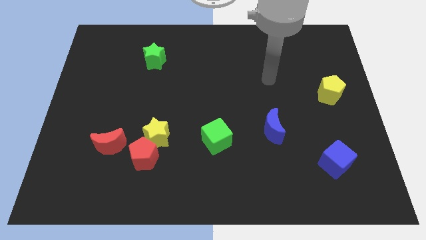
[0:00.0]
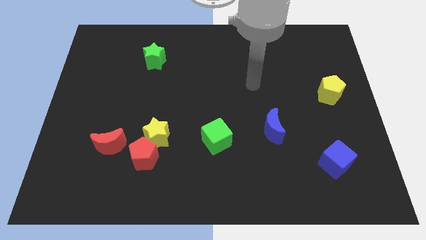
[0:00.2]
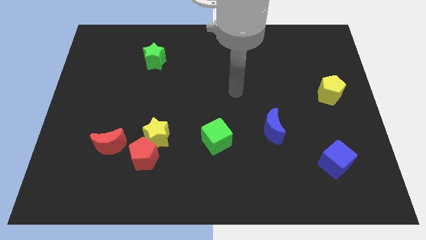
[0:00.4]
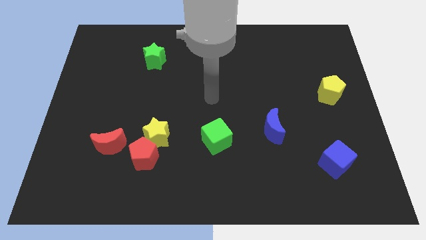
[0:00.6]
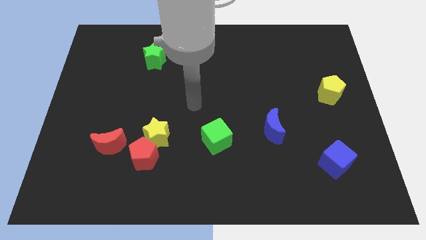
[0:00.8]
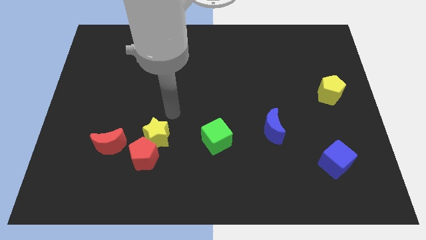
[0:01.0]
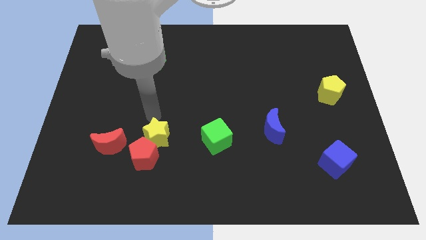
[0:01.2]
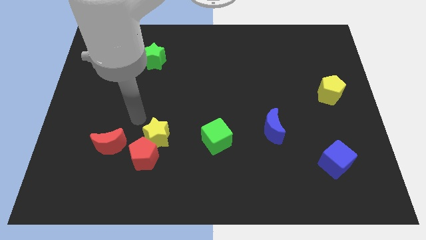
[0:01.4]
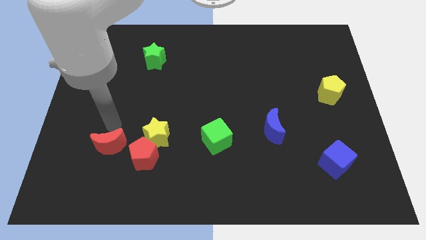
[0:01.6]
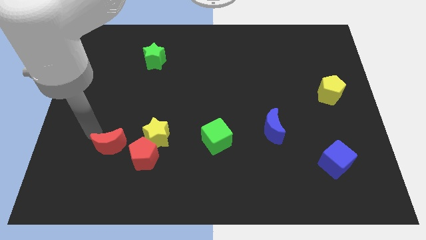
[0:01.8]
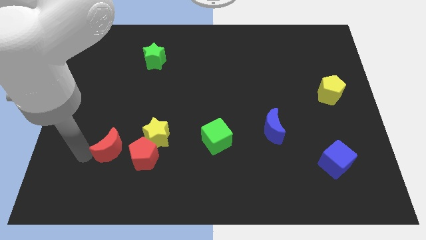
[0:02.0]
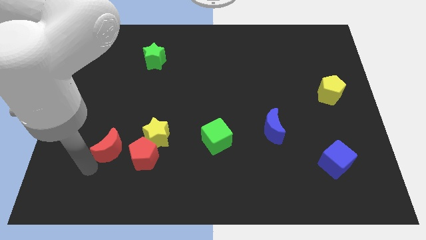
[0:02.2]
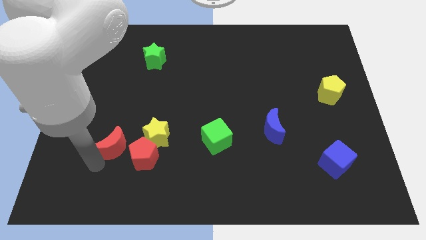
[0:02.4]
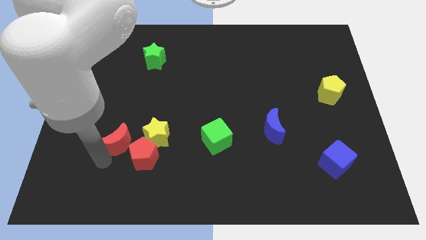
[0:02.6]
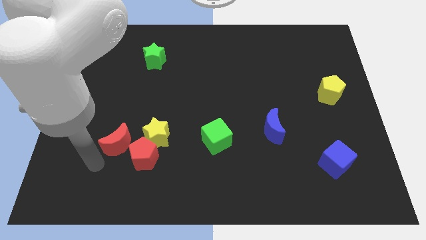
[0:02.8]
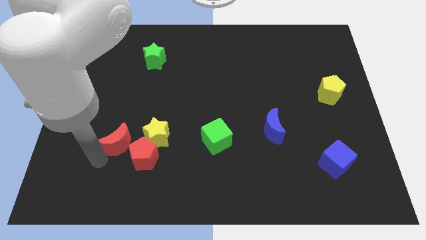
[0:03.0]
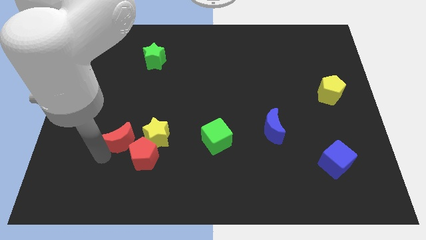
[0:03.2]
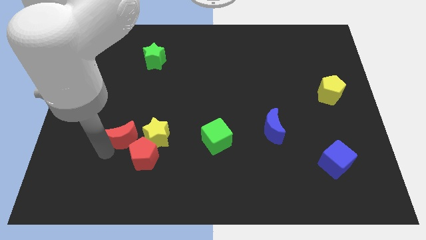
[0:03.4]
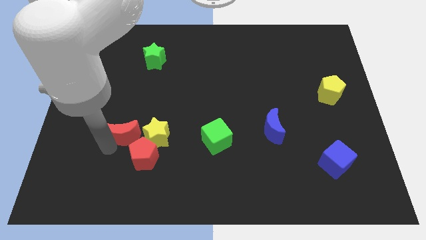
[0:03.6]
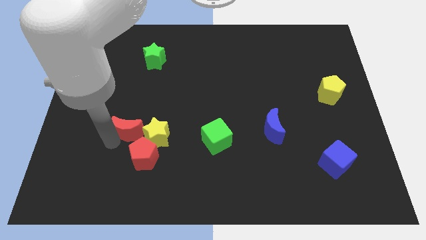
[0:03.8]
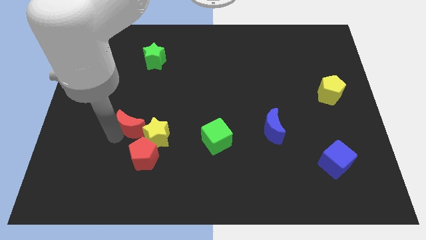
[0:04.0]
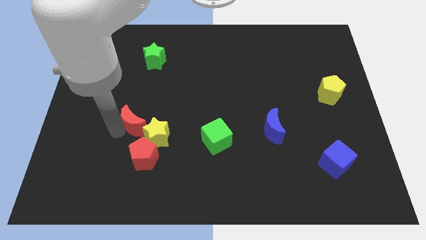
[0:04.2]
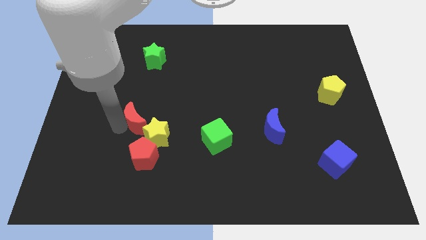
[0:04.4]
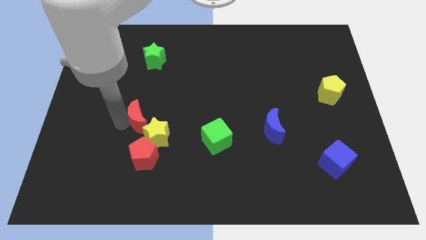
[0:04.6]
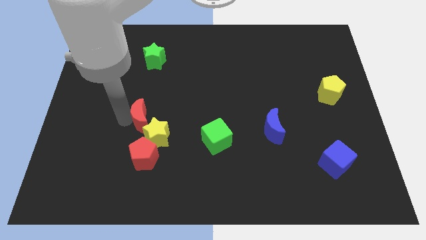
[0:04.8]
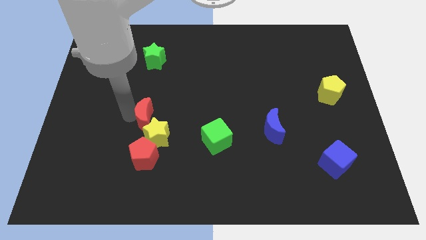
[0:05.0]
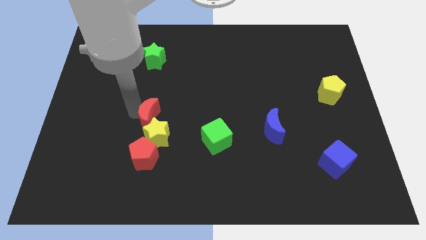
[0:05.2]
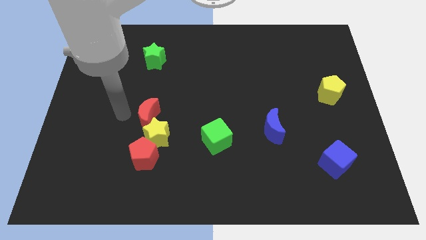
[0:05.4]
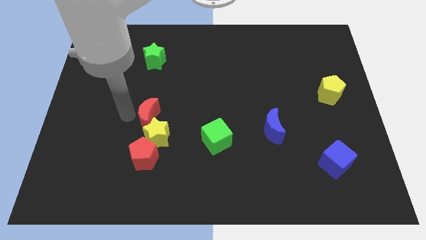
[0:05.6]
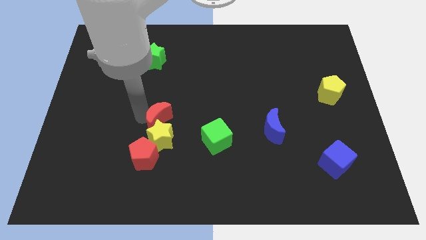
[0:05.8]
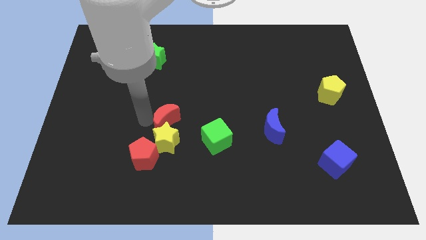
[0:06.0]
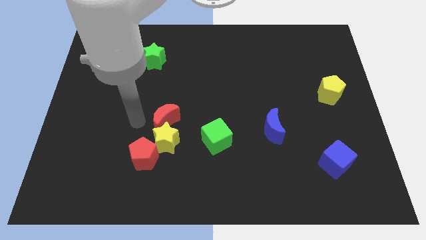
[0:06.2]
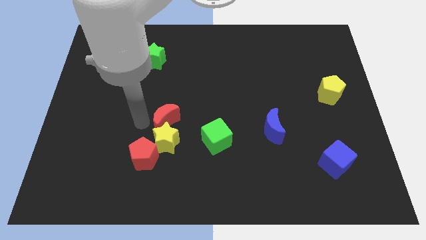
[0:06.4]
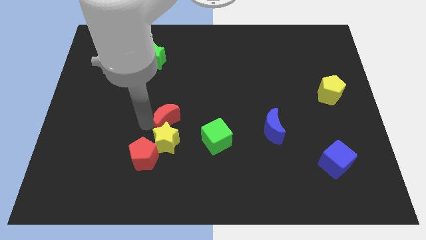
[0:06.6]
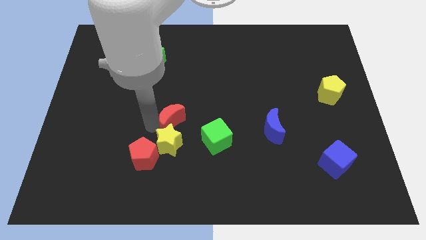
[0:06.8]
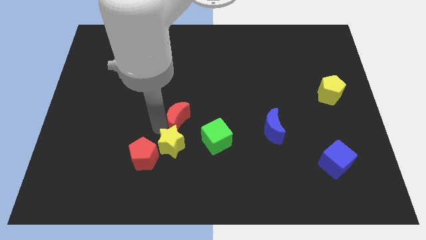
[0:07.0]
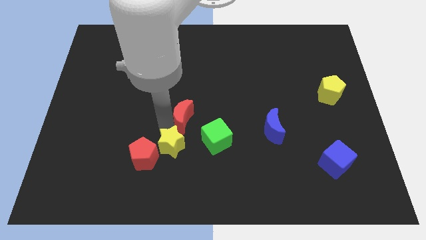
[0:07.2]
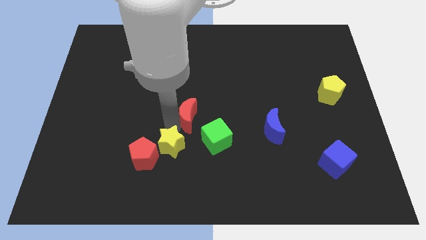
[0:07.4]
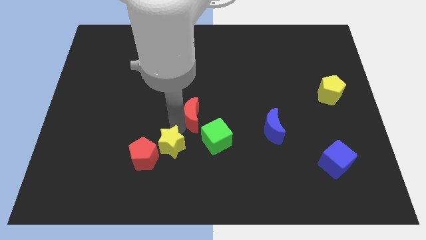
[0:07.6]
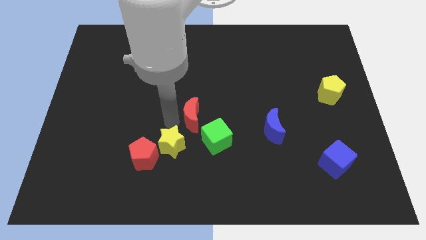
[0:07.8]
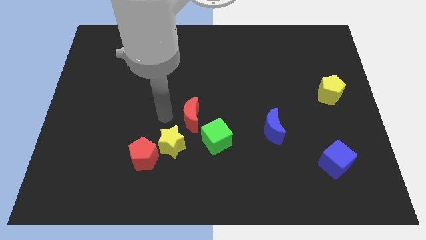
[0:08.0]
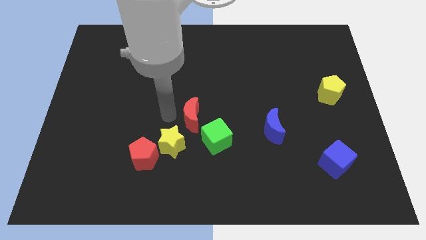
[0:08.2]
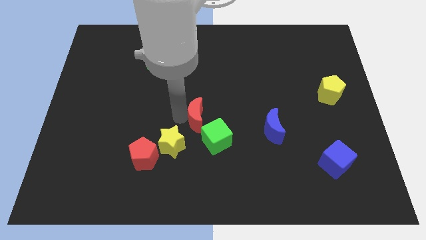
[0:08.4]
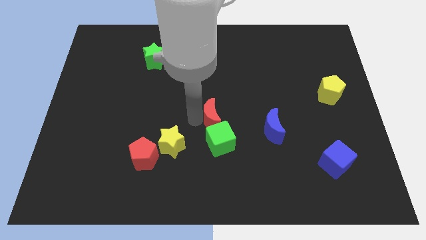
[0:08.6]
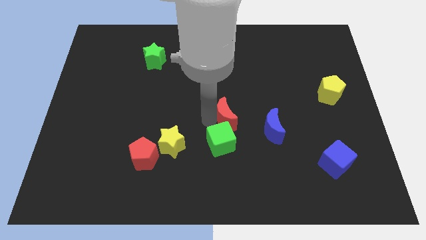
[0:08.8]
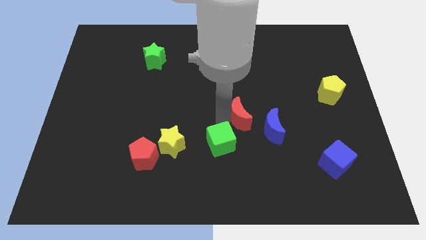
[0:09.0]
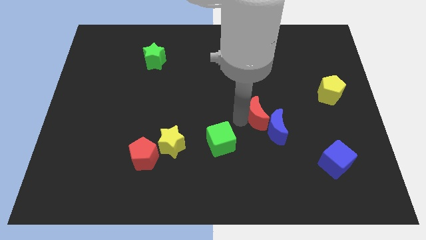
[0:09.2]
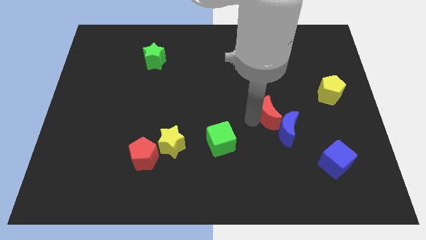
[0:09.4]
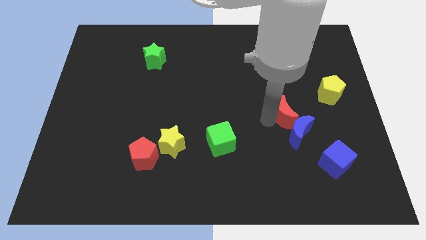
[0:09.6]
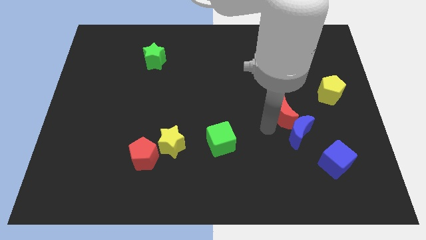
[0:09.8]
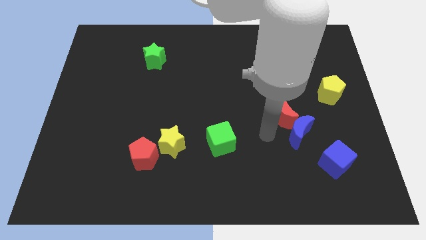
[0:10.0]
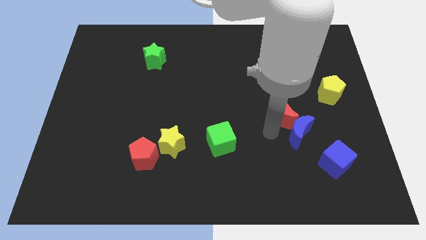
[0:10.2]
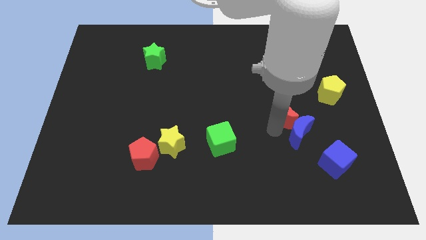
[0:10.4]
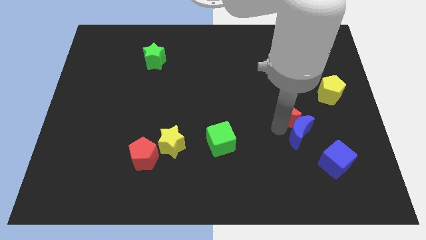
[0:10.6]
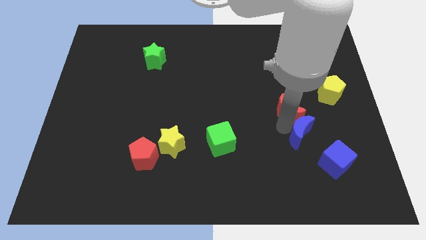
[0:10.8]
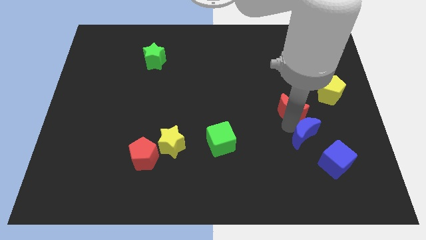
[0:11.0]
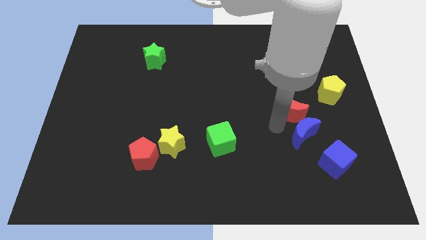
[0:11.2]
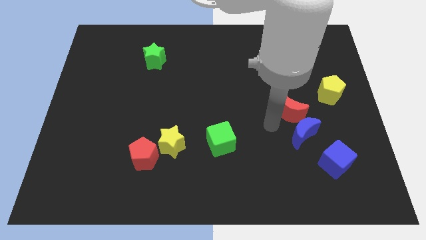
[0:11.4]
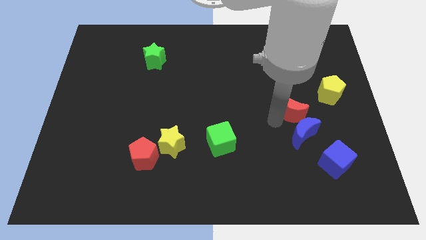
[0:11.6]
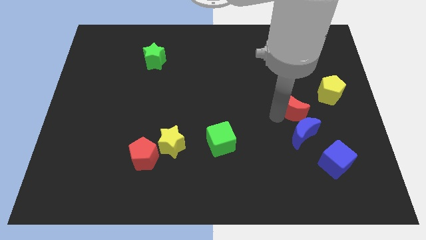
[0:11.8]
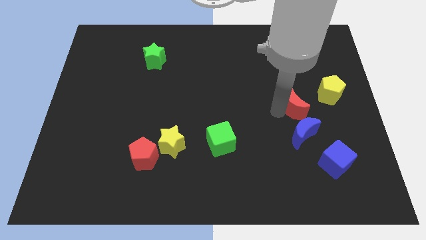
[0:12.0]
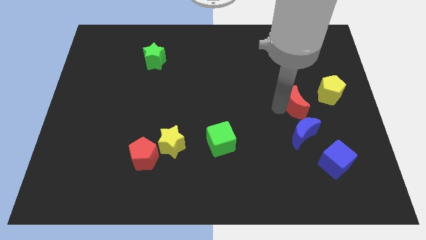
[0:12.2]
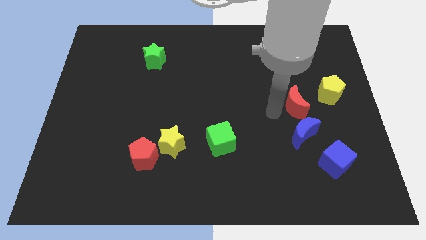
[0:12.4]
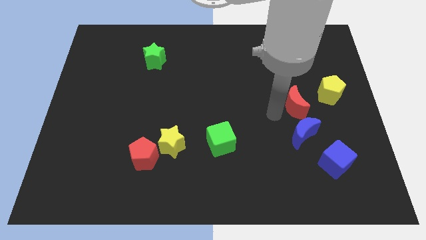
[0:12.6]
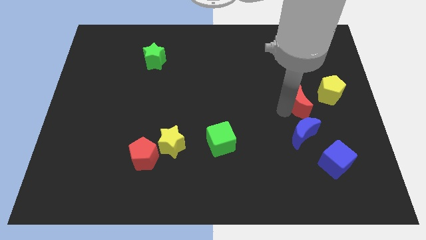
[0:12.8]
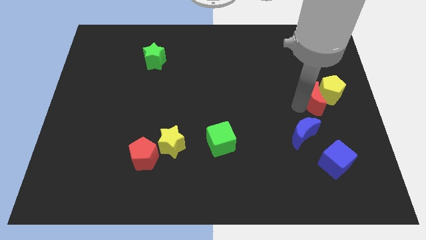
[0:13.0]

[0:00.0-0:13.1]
put the red moon to the yellow pentagon
